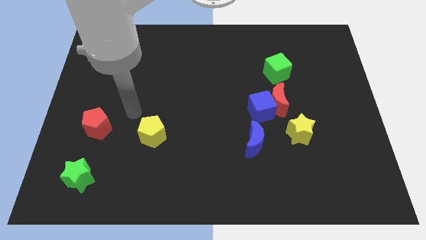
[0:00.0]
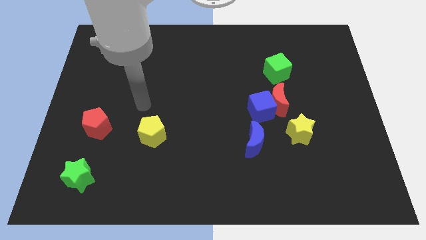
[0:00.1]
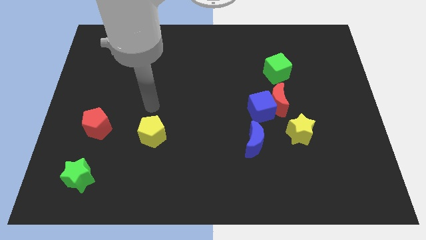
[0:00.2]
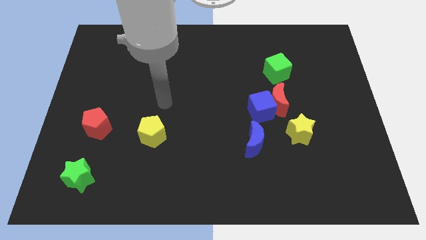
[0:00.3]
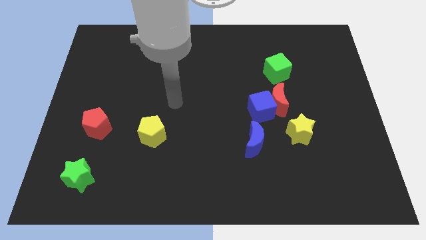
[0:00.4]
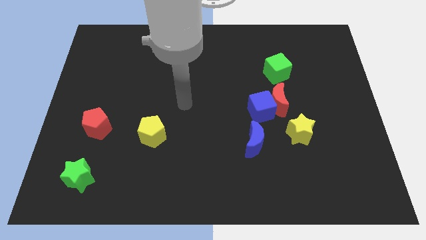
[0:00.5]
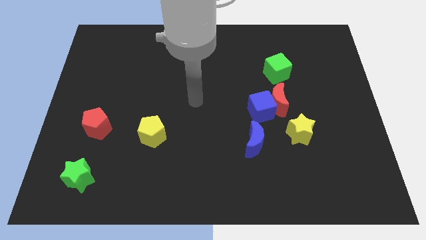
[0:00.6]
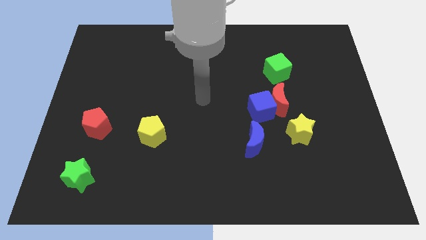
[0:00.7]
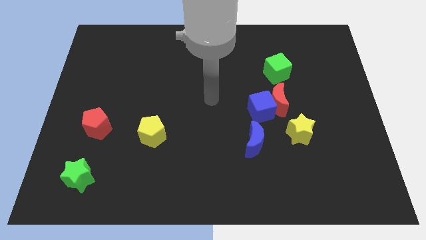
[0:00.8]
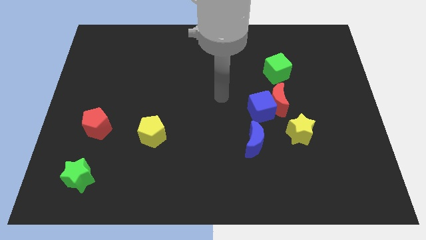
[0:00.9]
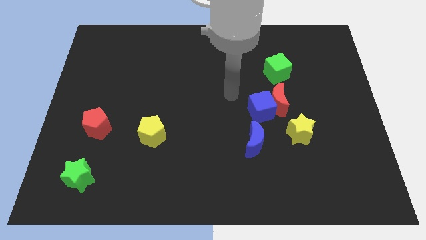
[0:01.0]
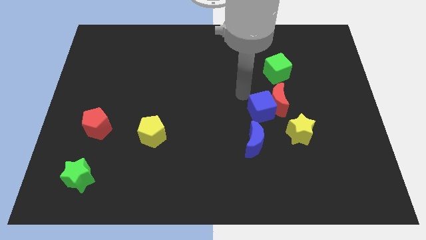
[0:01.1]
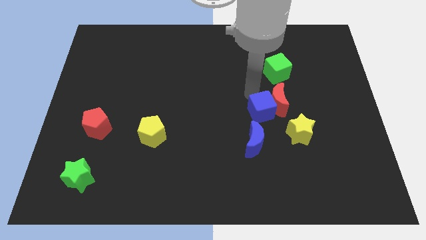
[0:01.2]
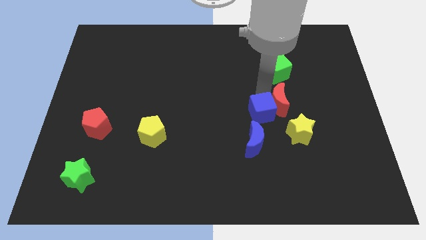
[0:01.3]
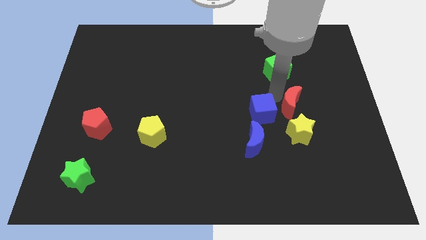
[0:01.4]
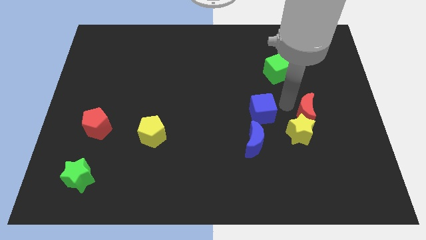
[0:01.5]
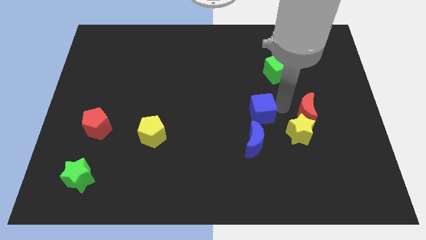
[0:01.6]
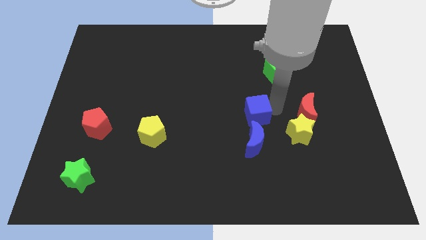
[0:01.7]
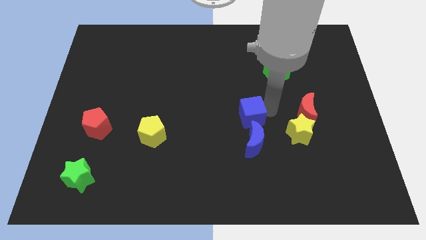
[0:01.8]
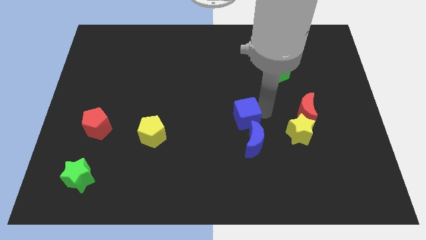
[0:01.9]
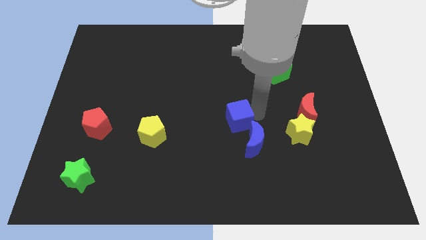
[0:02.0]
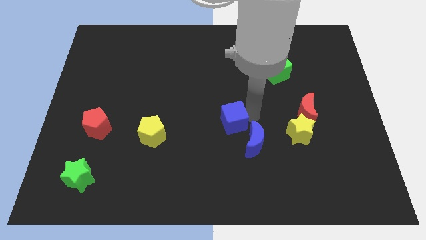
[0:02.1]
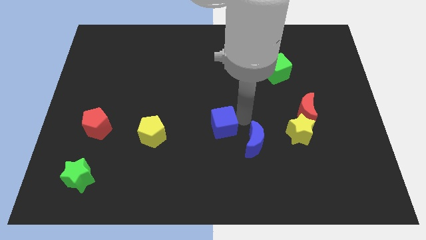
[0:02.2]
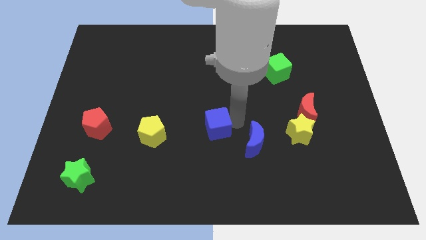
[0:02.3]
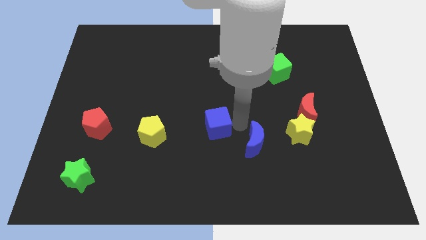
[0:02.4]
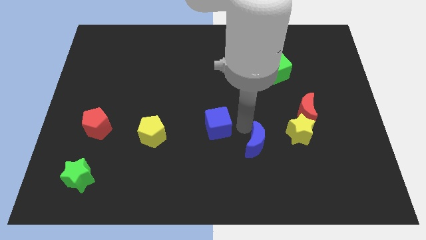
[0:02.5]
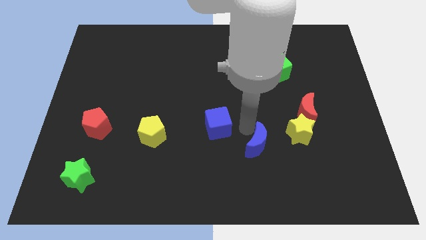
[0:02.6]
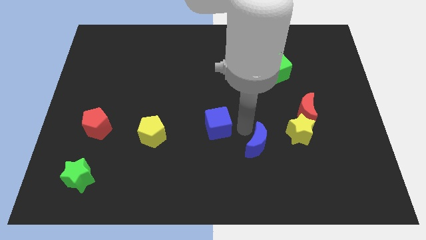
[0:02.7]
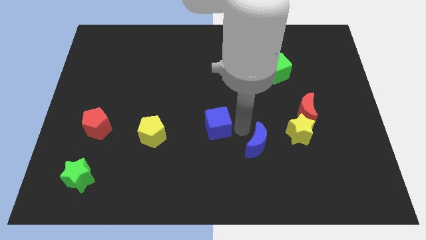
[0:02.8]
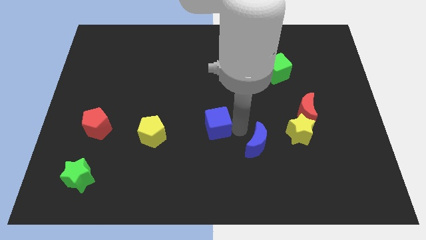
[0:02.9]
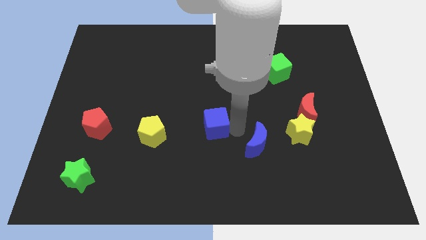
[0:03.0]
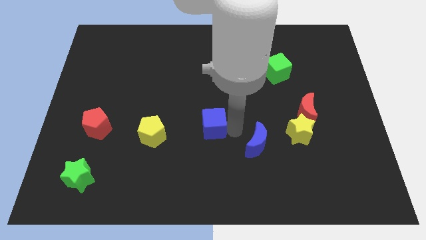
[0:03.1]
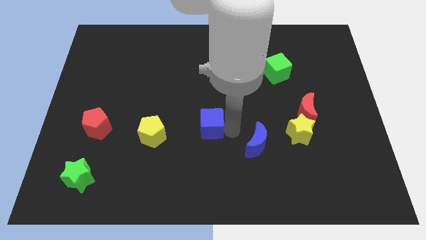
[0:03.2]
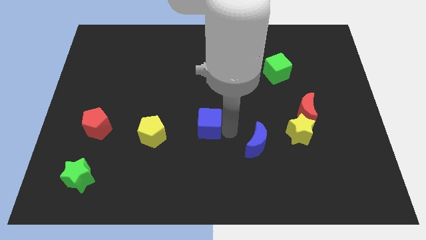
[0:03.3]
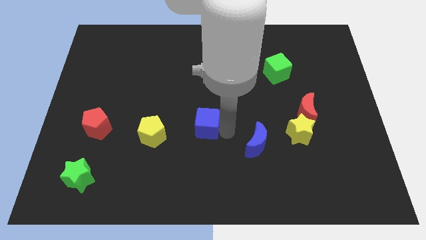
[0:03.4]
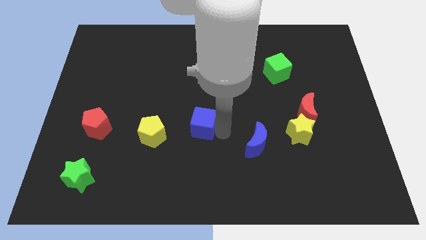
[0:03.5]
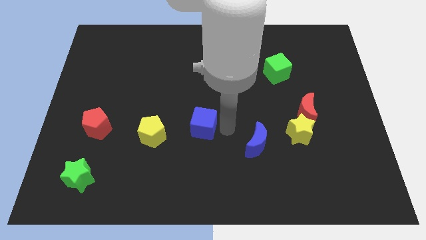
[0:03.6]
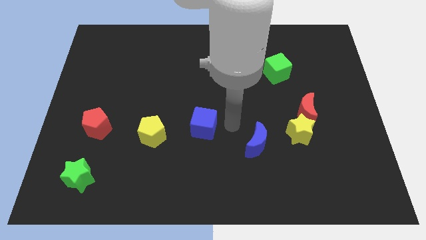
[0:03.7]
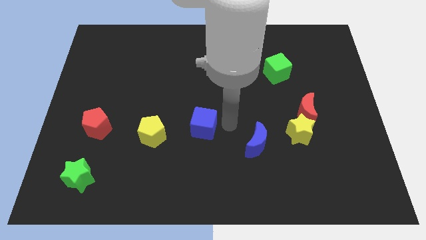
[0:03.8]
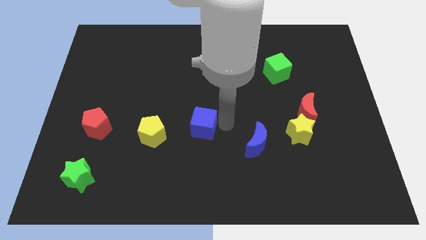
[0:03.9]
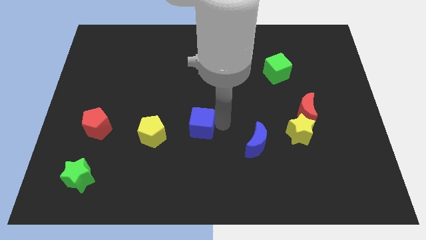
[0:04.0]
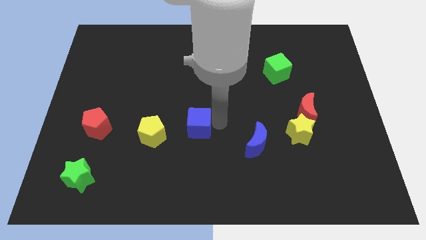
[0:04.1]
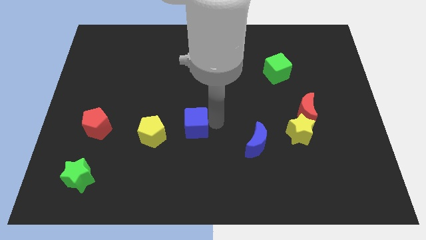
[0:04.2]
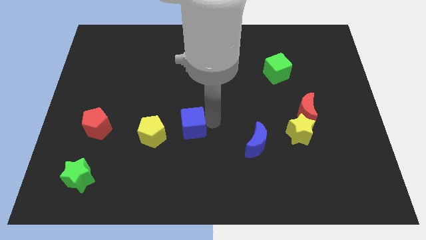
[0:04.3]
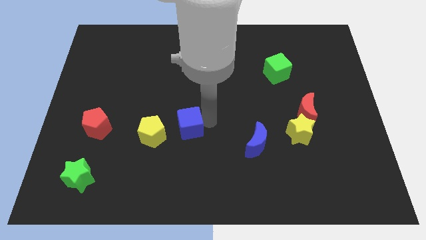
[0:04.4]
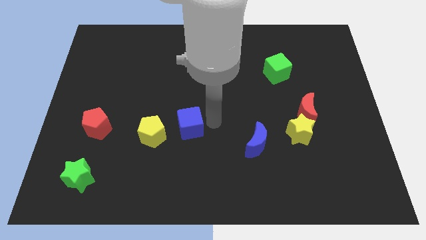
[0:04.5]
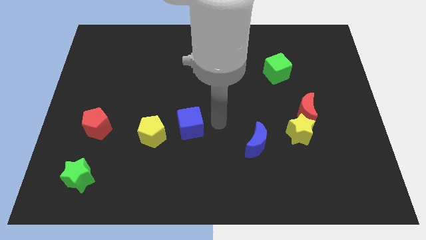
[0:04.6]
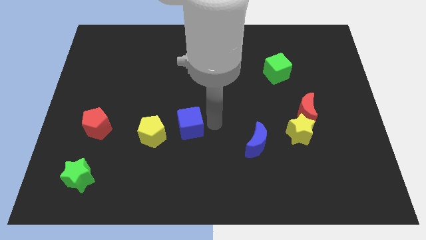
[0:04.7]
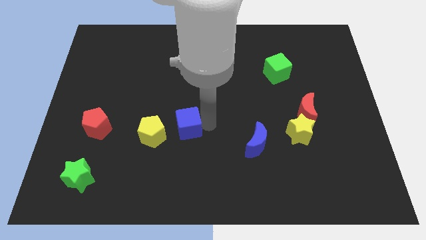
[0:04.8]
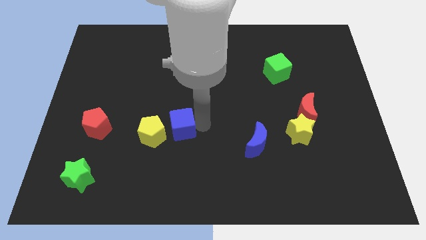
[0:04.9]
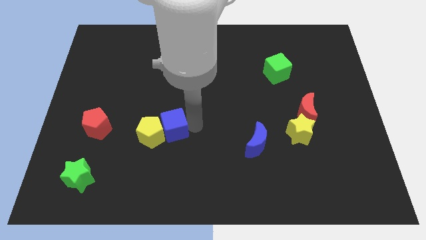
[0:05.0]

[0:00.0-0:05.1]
push the blue cube towards the yellow pentagon

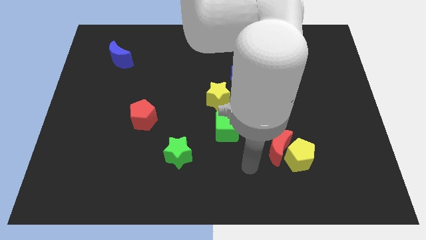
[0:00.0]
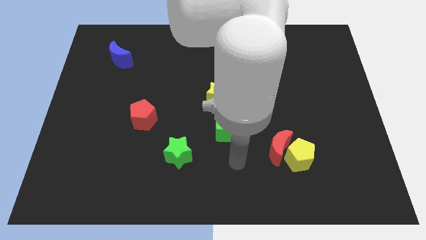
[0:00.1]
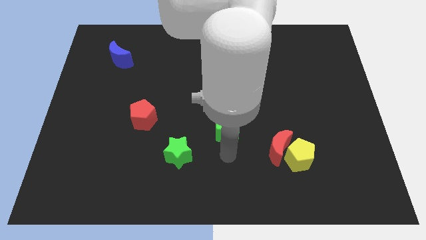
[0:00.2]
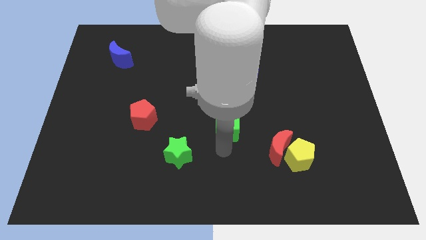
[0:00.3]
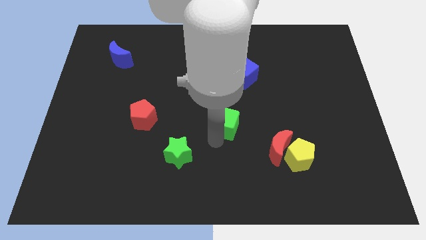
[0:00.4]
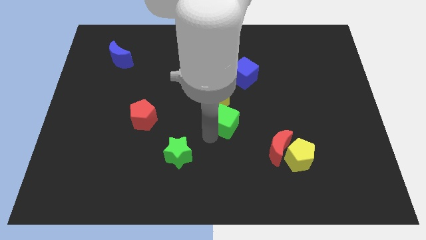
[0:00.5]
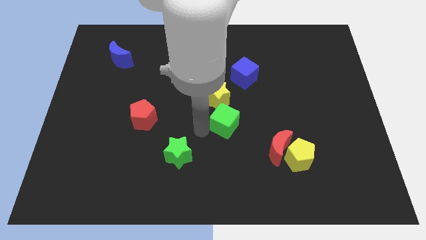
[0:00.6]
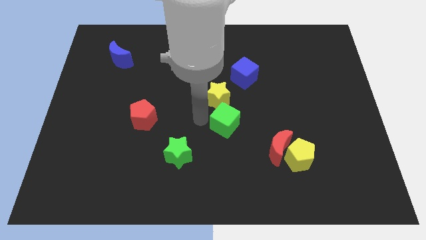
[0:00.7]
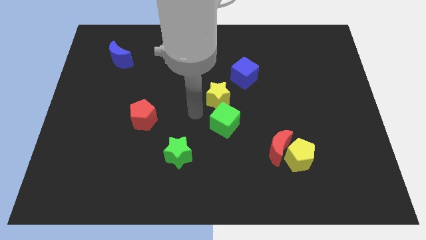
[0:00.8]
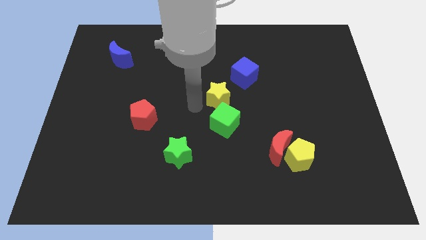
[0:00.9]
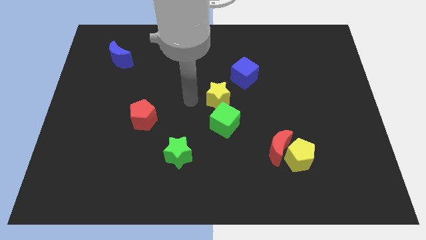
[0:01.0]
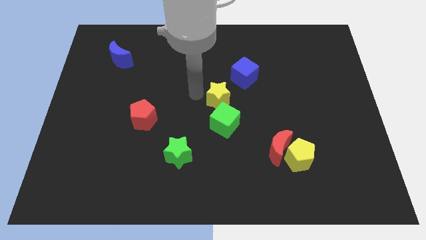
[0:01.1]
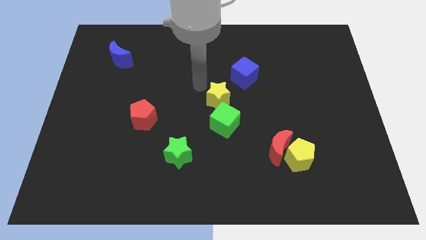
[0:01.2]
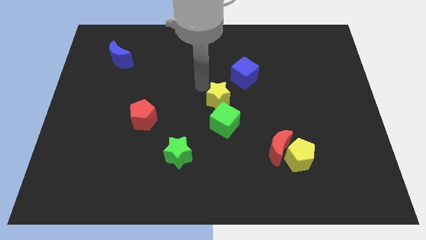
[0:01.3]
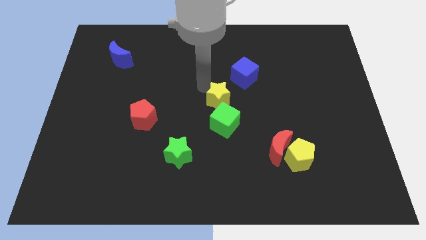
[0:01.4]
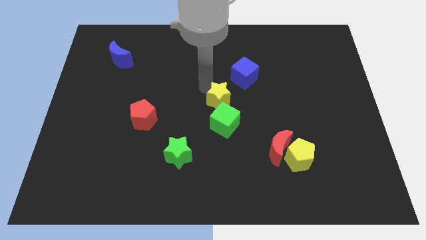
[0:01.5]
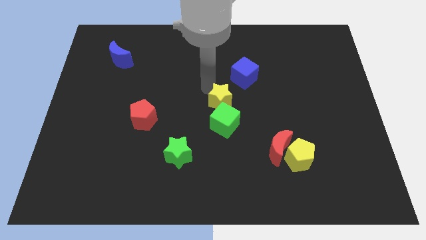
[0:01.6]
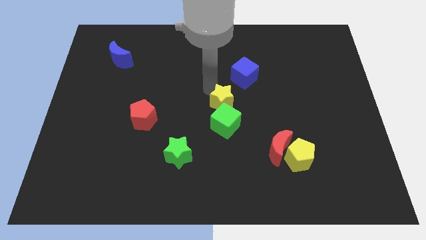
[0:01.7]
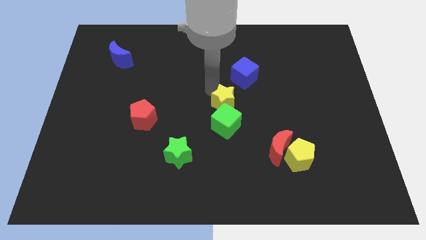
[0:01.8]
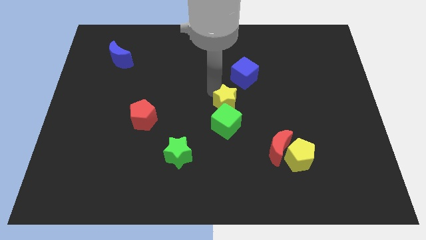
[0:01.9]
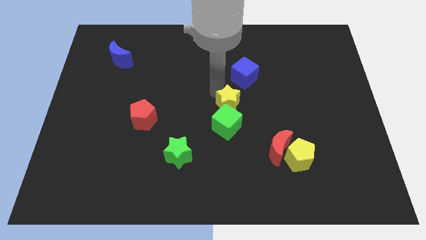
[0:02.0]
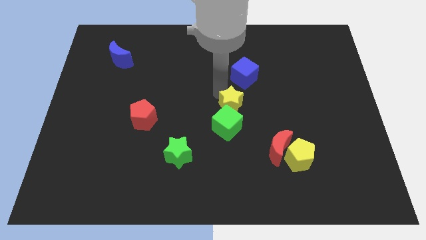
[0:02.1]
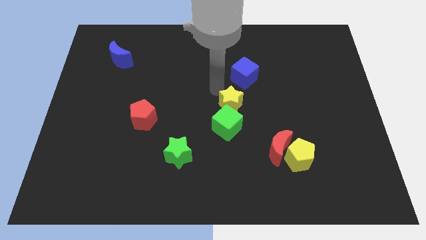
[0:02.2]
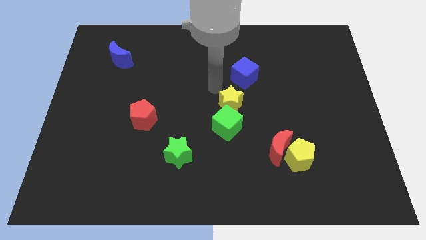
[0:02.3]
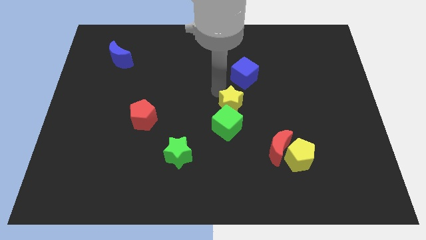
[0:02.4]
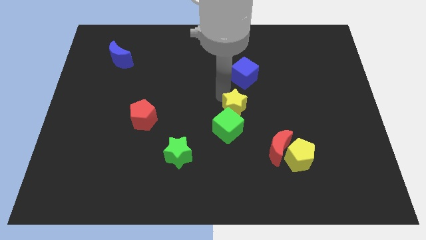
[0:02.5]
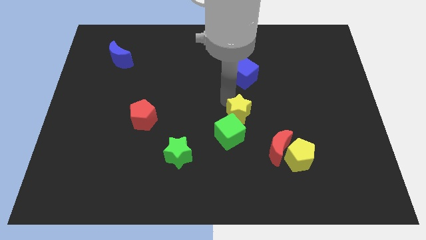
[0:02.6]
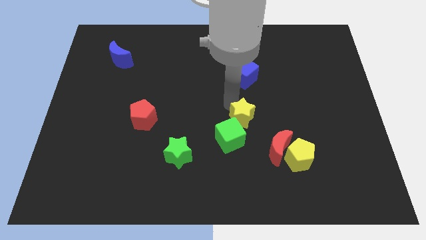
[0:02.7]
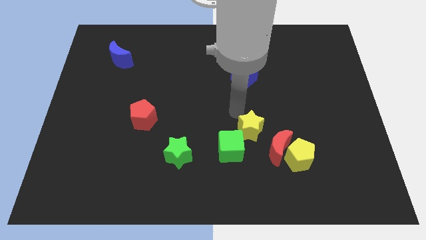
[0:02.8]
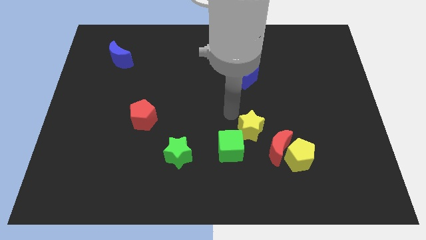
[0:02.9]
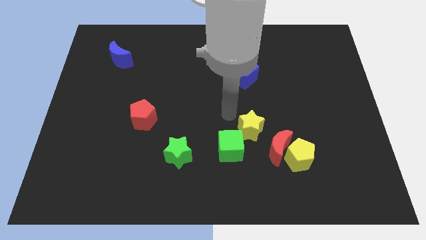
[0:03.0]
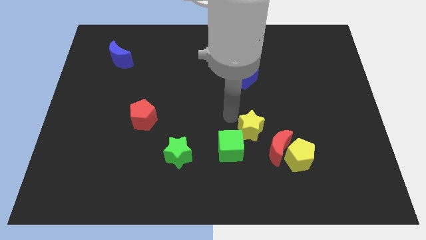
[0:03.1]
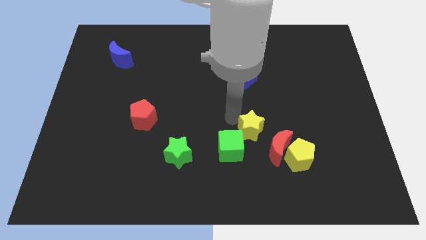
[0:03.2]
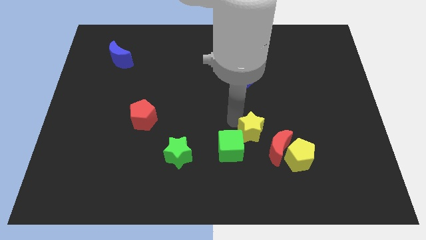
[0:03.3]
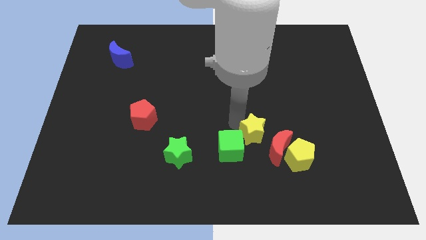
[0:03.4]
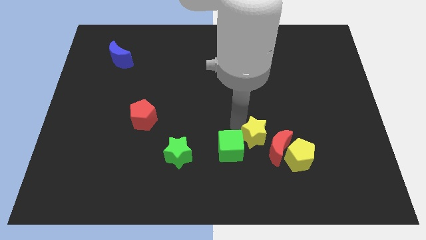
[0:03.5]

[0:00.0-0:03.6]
slide the yellow star towards the red moon
